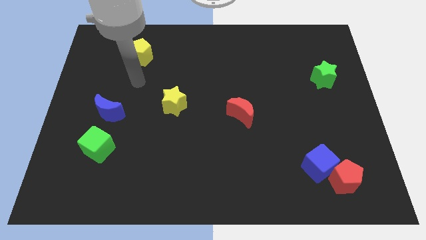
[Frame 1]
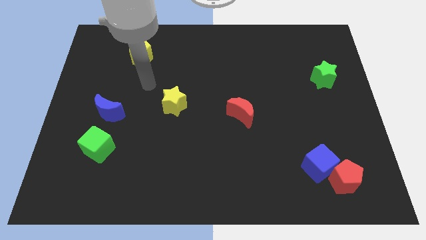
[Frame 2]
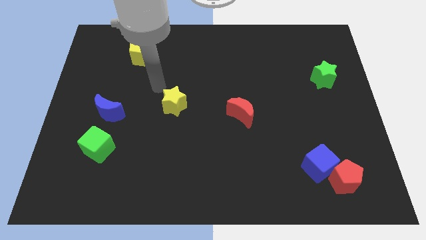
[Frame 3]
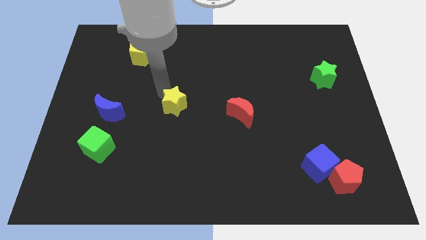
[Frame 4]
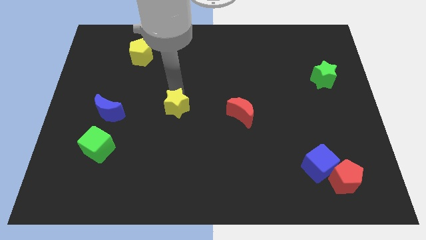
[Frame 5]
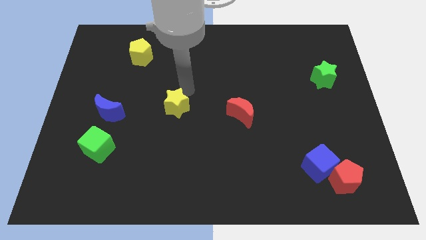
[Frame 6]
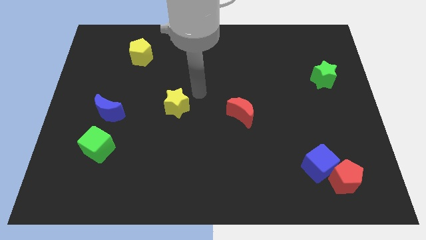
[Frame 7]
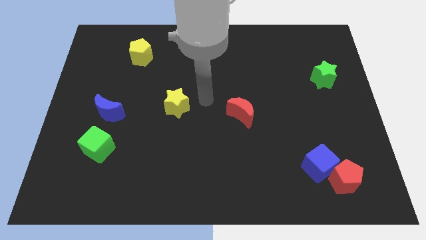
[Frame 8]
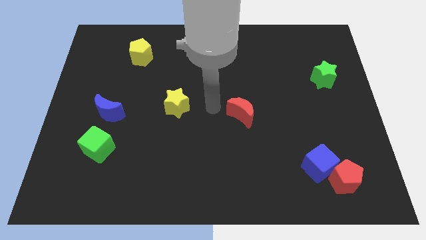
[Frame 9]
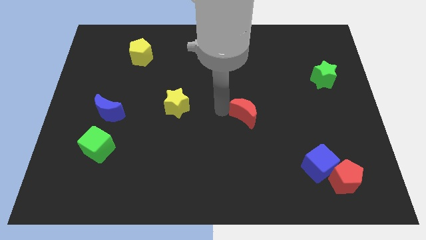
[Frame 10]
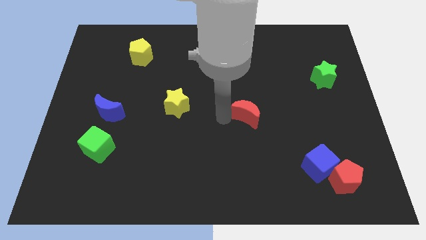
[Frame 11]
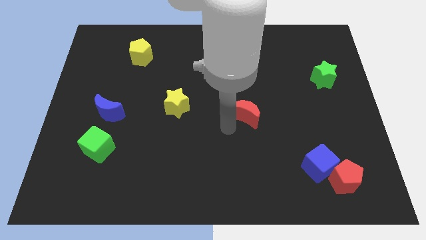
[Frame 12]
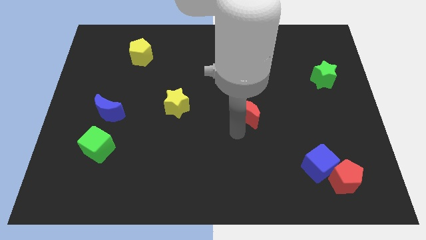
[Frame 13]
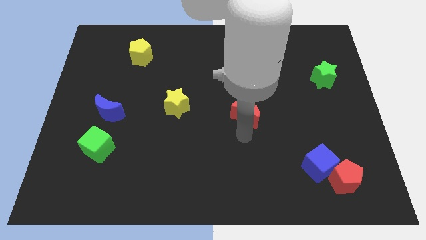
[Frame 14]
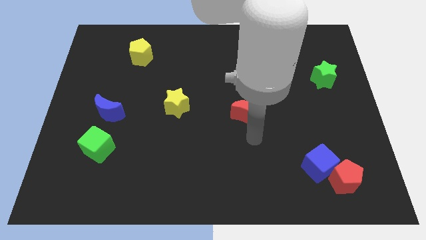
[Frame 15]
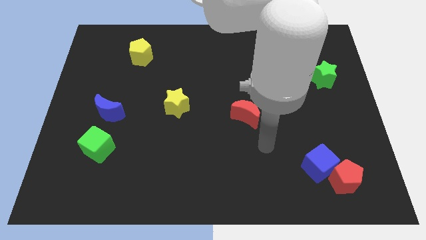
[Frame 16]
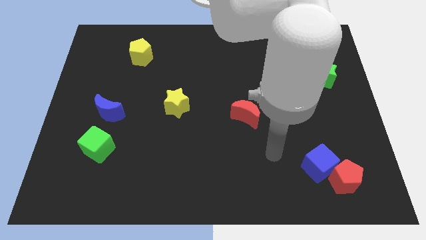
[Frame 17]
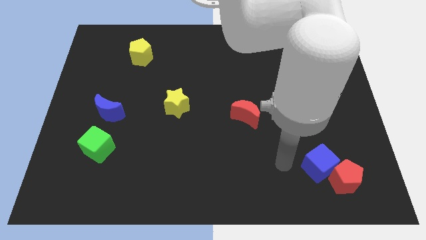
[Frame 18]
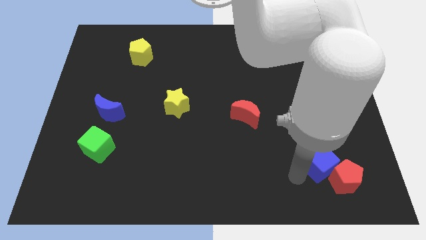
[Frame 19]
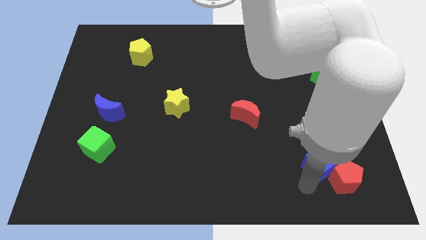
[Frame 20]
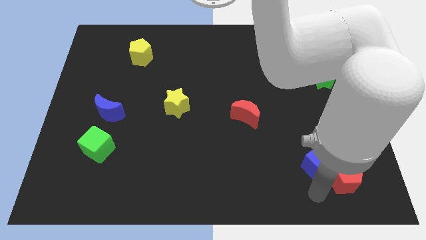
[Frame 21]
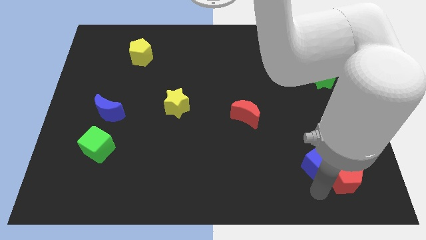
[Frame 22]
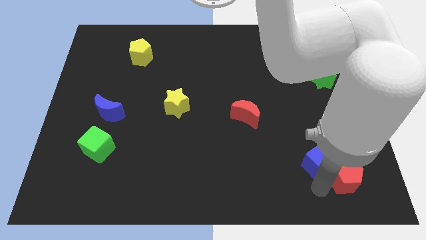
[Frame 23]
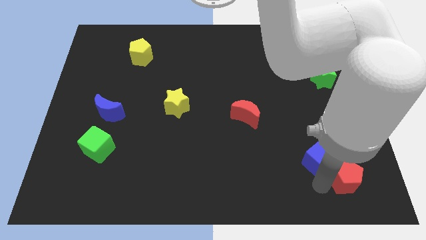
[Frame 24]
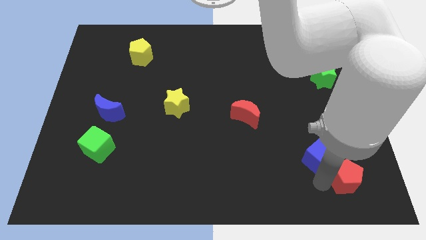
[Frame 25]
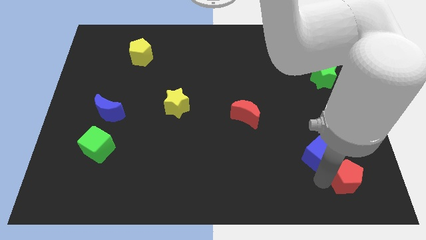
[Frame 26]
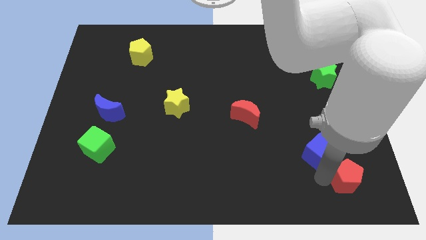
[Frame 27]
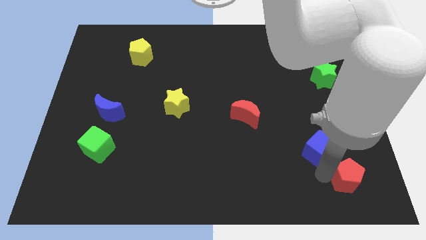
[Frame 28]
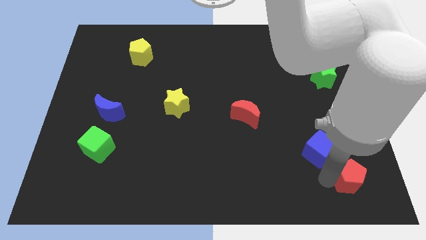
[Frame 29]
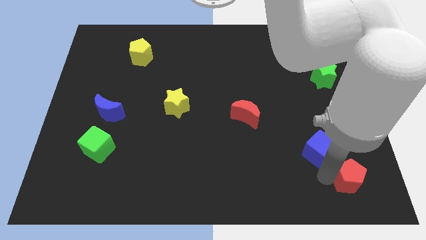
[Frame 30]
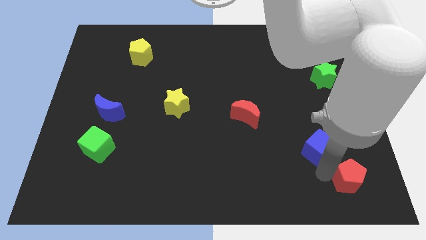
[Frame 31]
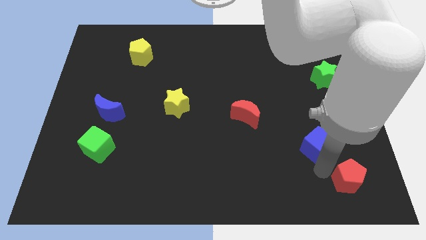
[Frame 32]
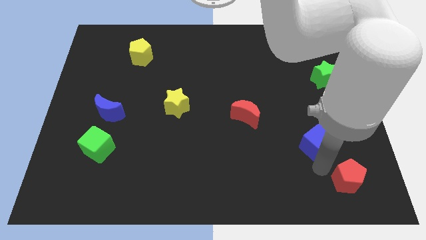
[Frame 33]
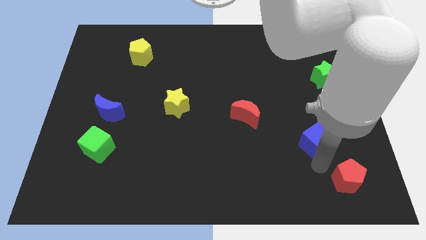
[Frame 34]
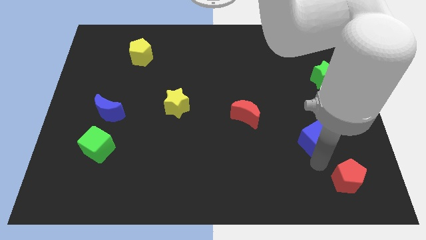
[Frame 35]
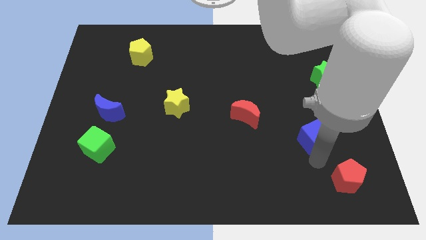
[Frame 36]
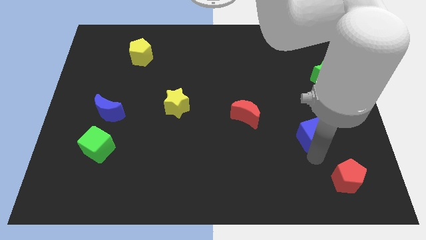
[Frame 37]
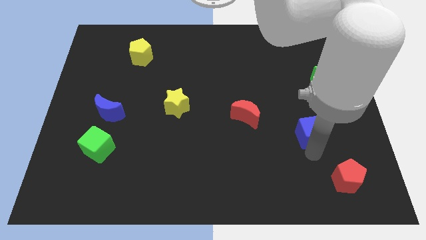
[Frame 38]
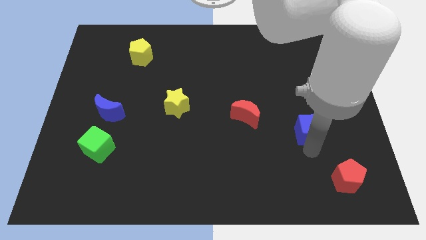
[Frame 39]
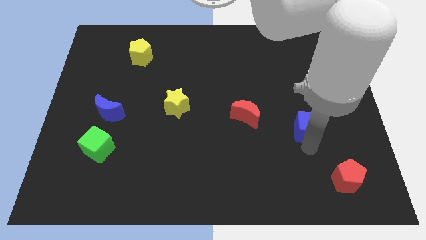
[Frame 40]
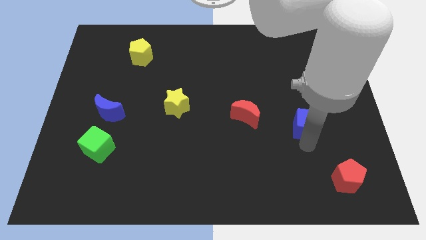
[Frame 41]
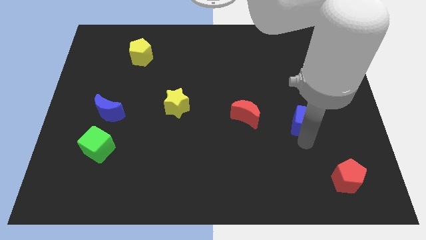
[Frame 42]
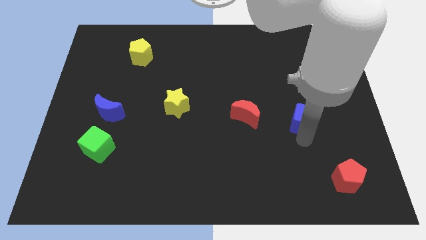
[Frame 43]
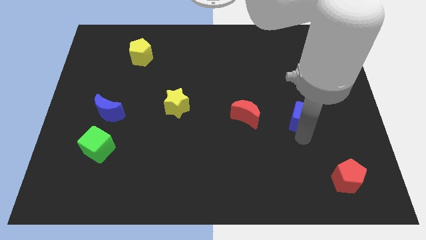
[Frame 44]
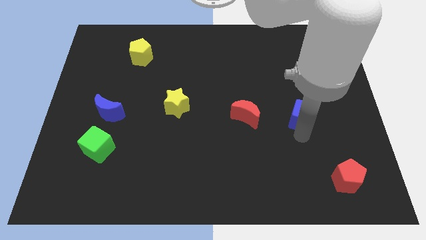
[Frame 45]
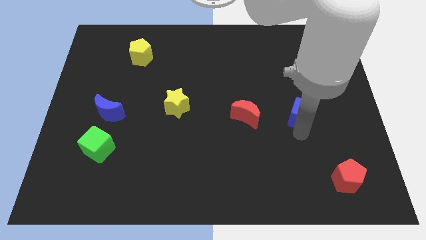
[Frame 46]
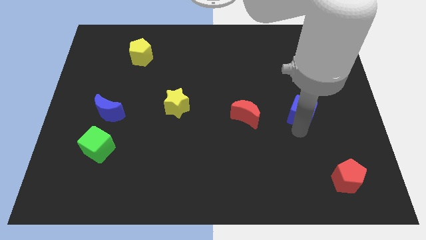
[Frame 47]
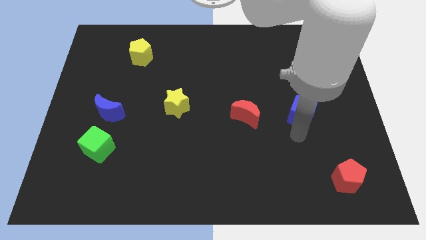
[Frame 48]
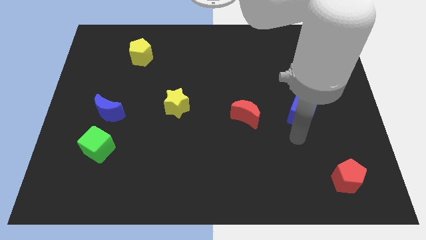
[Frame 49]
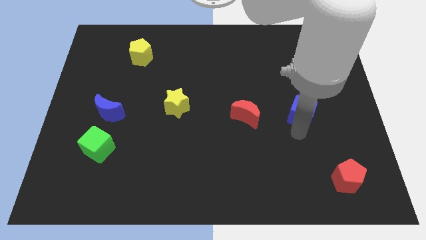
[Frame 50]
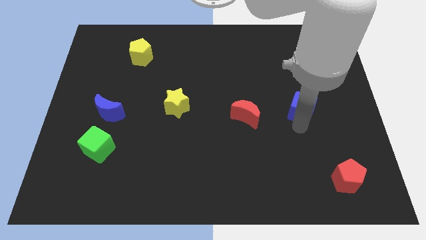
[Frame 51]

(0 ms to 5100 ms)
push the blue cube to the bottom left of the green star

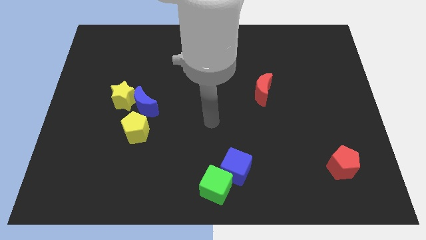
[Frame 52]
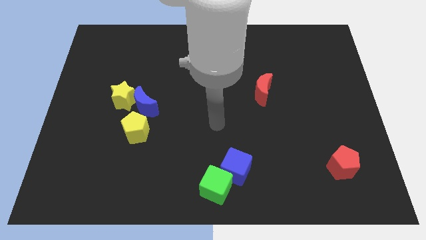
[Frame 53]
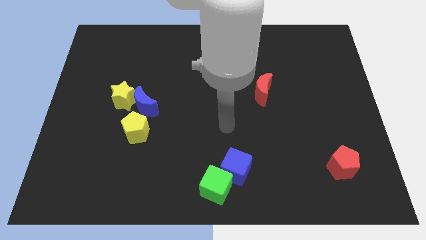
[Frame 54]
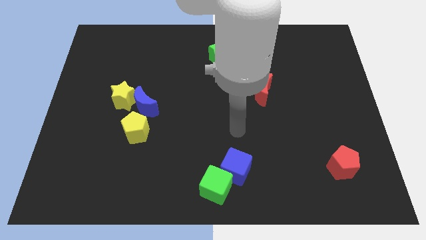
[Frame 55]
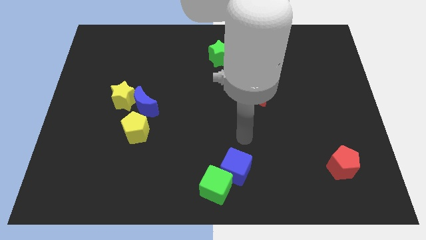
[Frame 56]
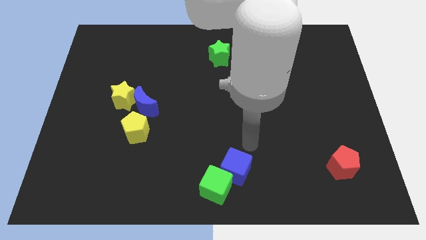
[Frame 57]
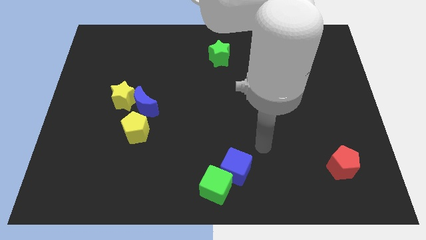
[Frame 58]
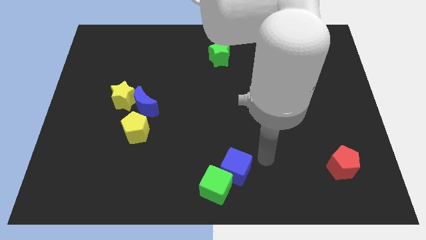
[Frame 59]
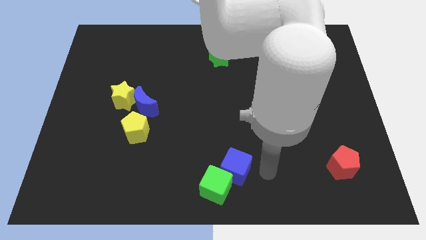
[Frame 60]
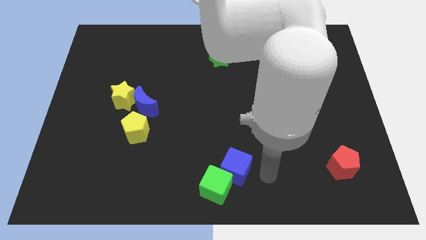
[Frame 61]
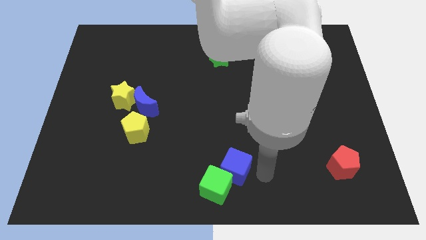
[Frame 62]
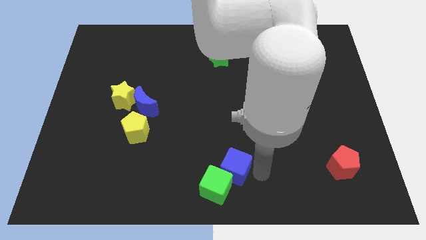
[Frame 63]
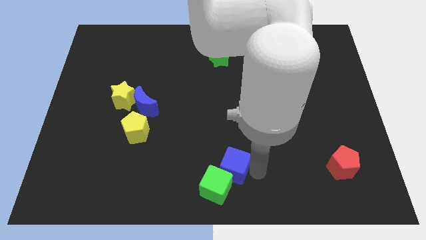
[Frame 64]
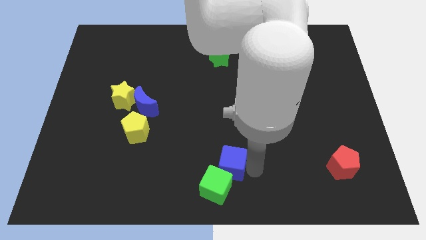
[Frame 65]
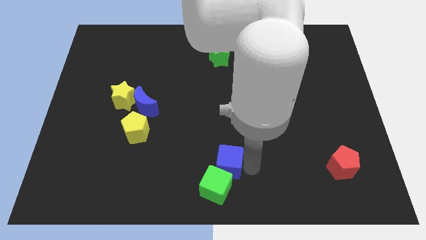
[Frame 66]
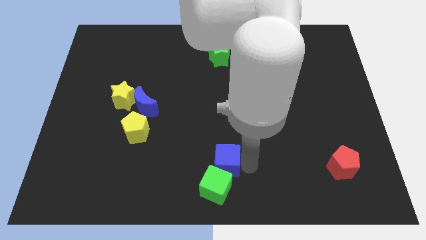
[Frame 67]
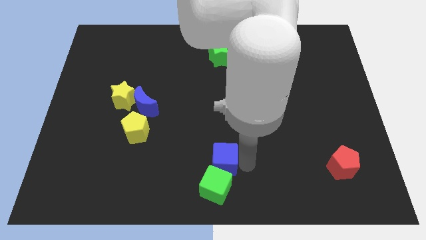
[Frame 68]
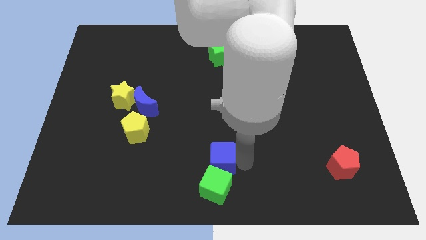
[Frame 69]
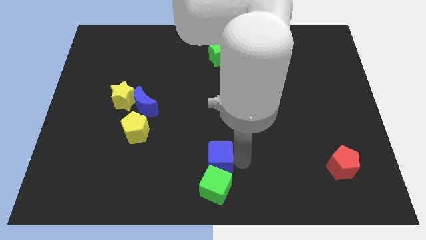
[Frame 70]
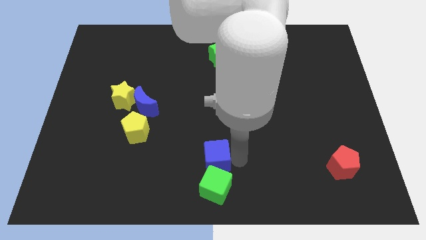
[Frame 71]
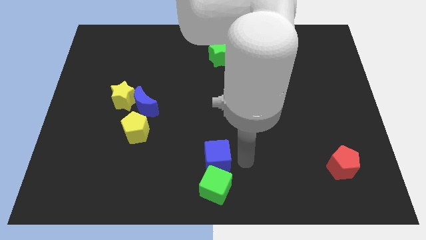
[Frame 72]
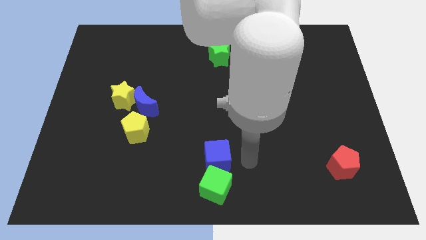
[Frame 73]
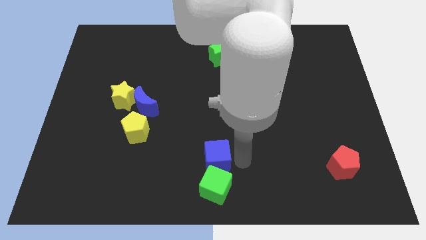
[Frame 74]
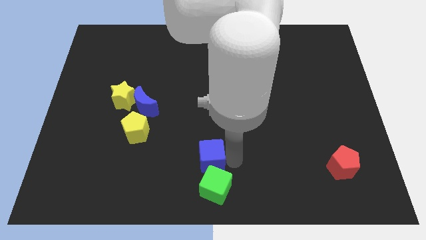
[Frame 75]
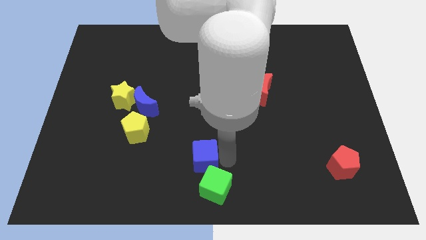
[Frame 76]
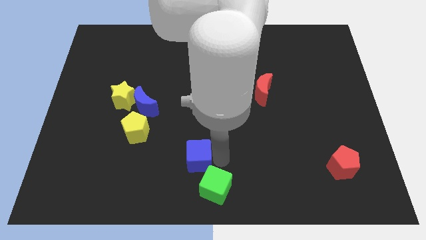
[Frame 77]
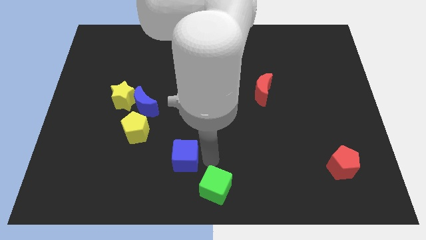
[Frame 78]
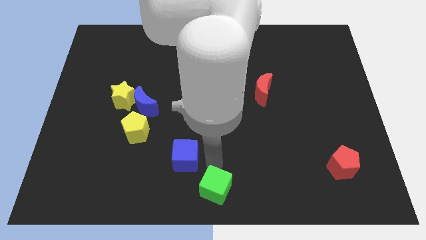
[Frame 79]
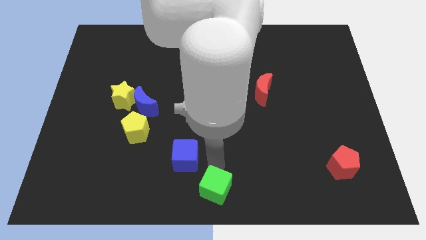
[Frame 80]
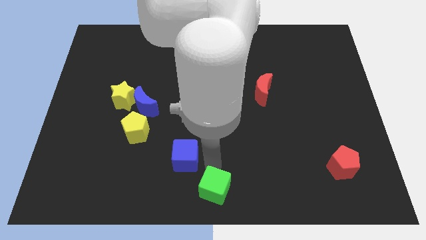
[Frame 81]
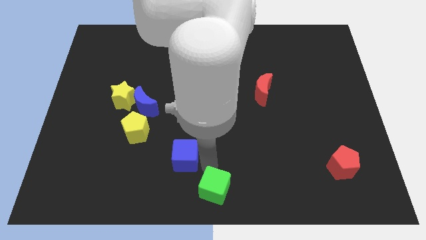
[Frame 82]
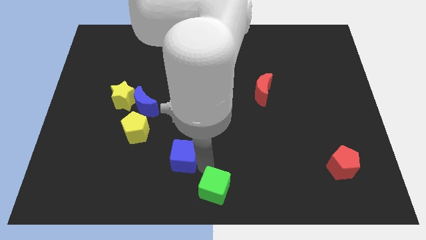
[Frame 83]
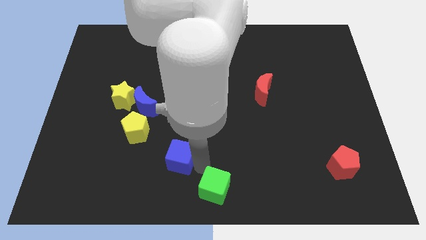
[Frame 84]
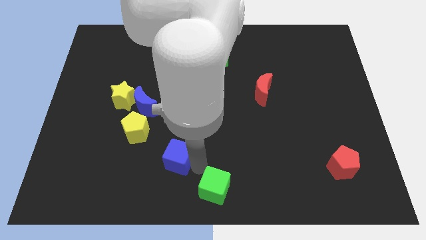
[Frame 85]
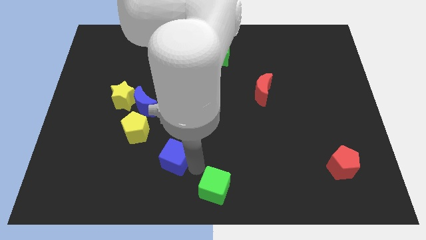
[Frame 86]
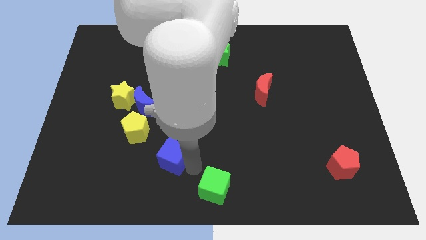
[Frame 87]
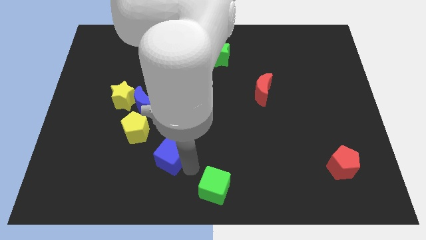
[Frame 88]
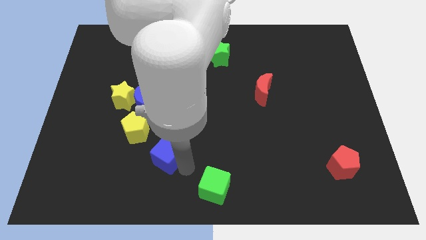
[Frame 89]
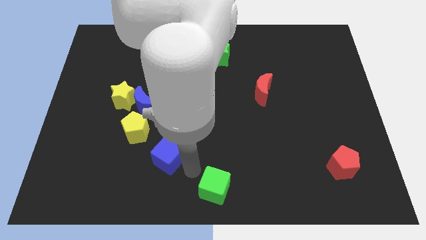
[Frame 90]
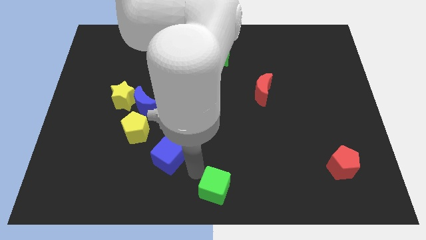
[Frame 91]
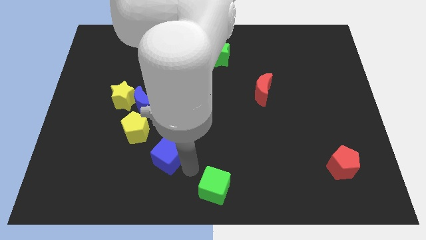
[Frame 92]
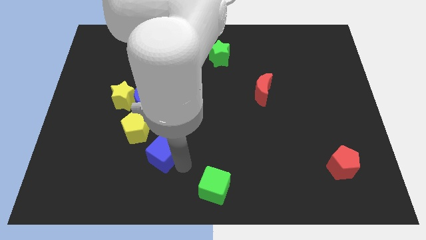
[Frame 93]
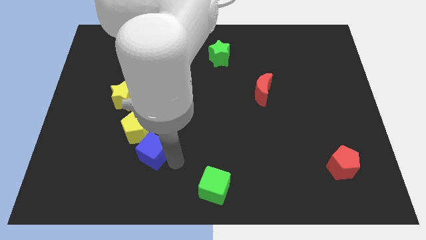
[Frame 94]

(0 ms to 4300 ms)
move the blue cube to the bottom of the blue moon
